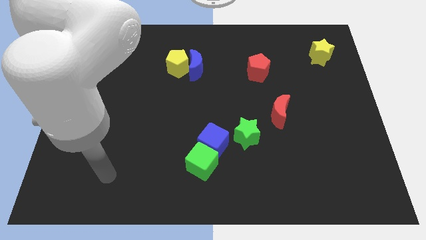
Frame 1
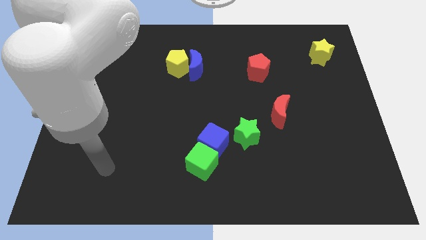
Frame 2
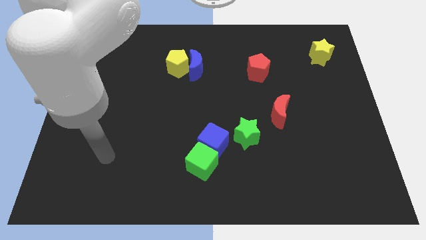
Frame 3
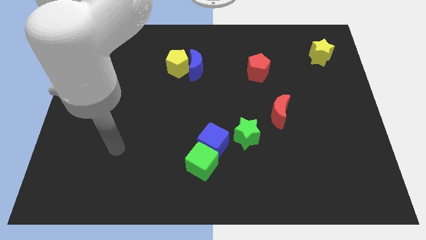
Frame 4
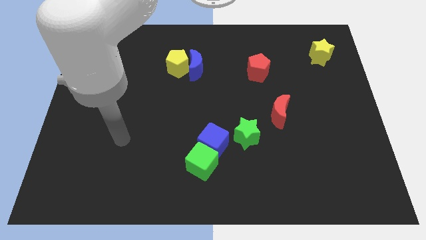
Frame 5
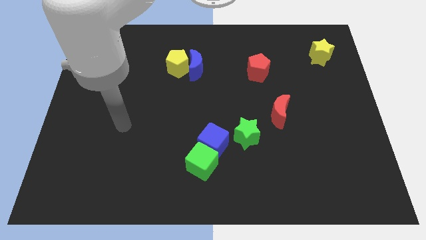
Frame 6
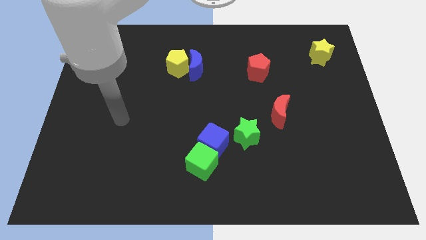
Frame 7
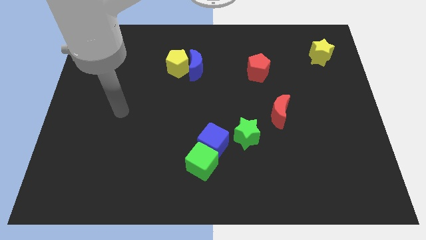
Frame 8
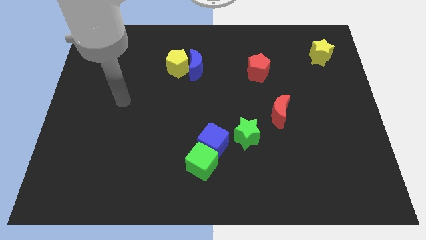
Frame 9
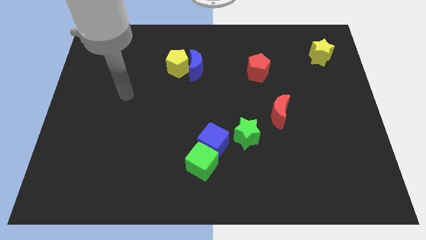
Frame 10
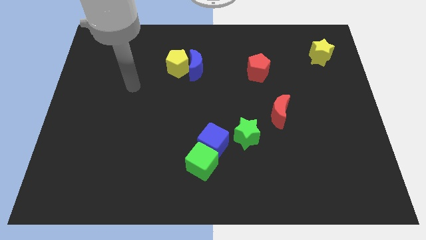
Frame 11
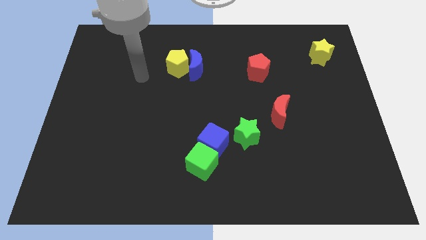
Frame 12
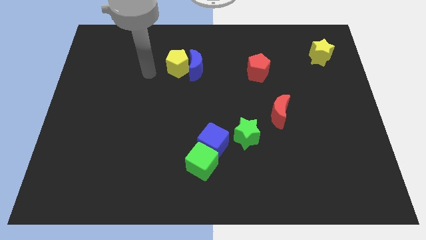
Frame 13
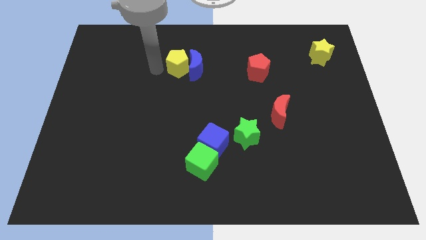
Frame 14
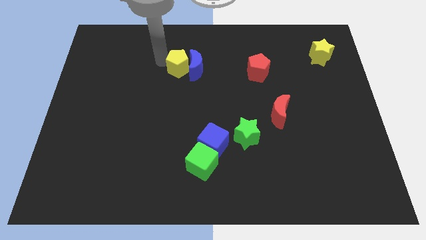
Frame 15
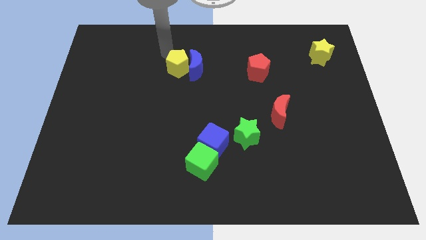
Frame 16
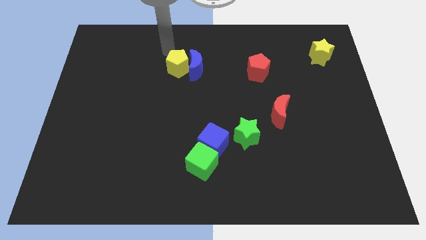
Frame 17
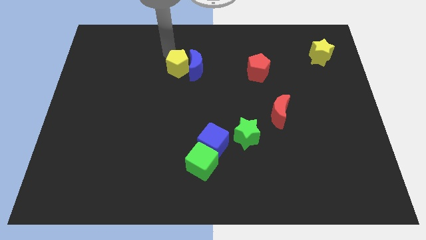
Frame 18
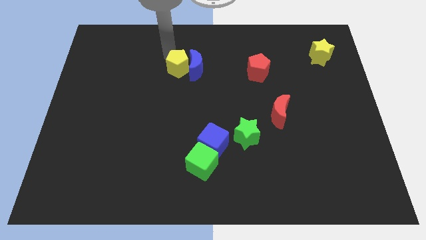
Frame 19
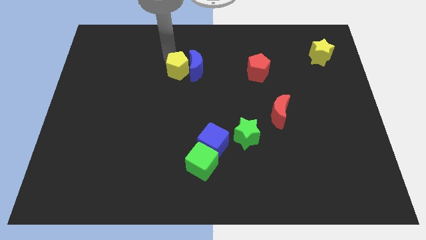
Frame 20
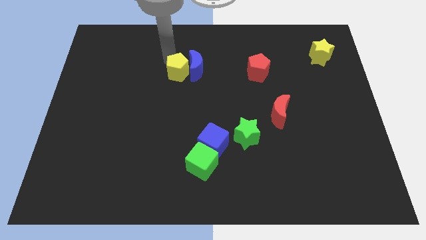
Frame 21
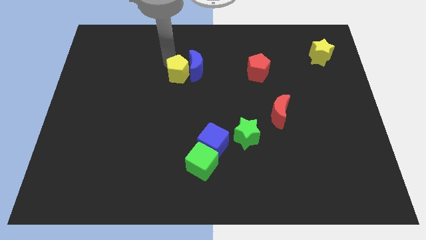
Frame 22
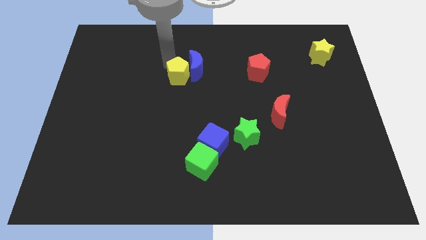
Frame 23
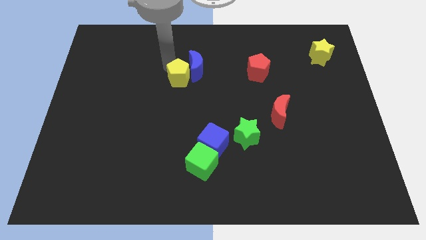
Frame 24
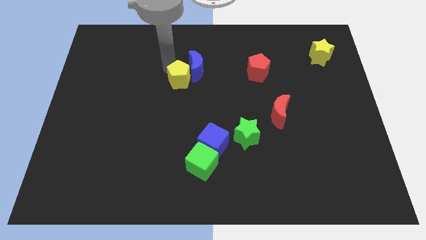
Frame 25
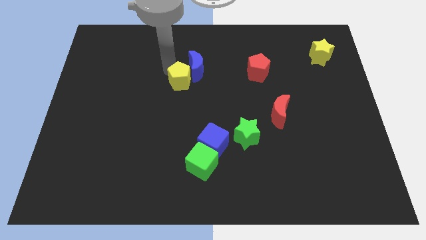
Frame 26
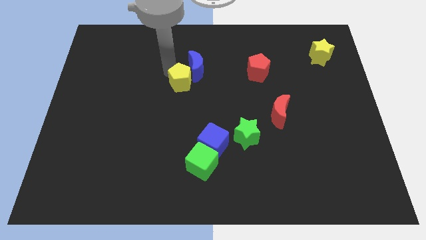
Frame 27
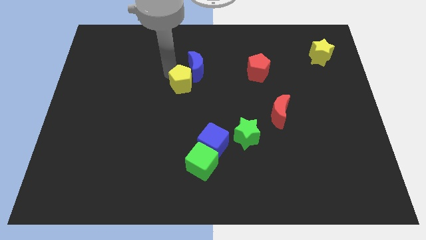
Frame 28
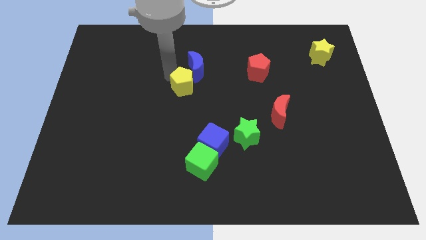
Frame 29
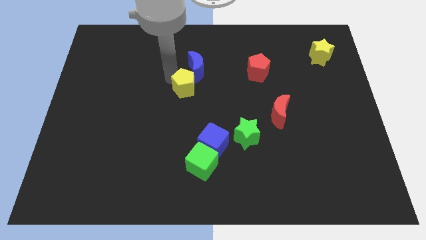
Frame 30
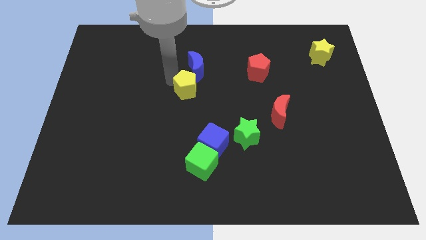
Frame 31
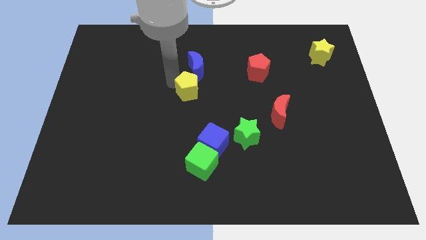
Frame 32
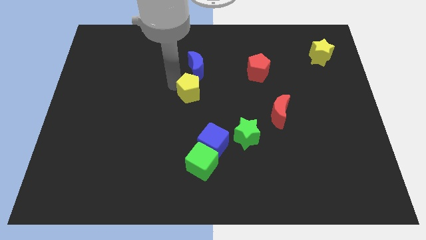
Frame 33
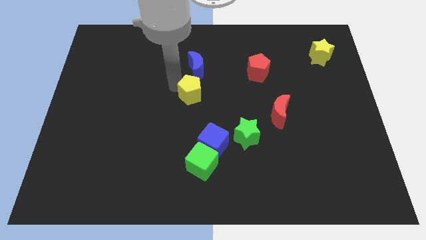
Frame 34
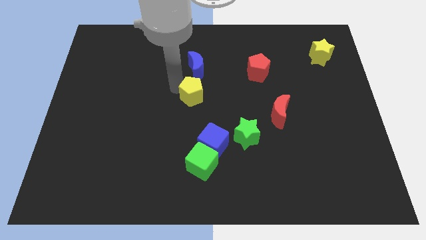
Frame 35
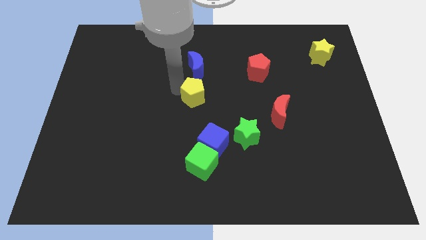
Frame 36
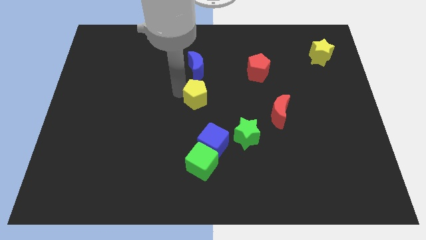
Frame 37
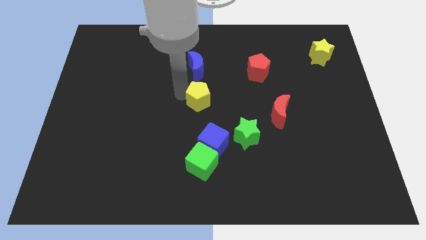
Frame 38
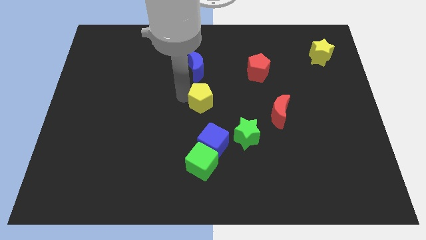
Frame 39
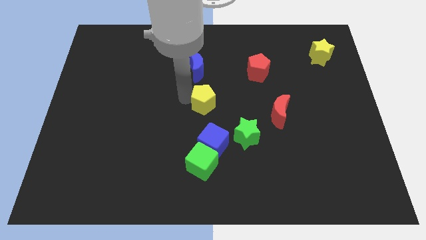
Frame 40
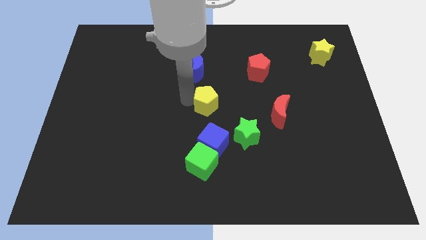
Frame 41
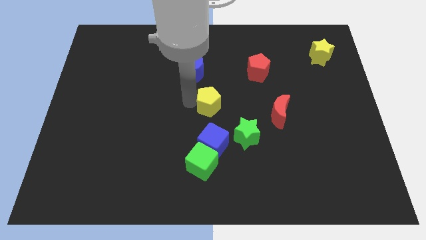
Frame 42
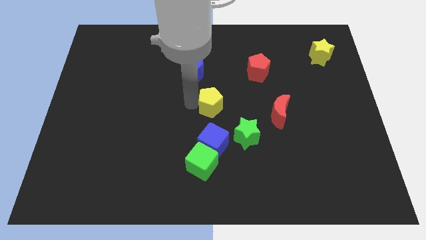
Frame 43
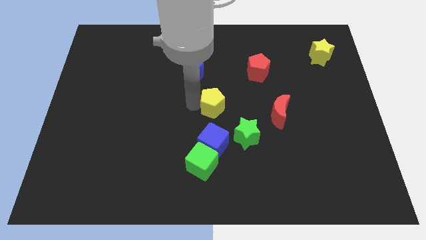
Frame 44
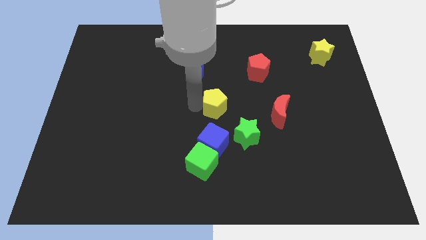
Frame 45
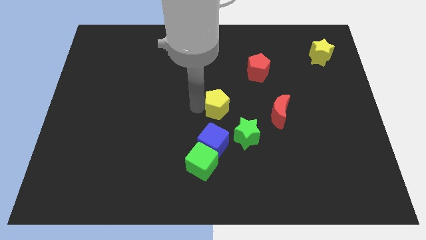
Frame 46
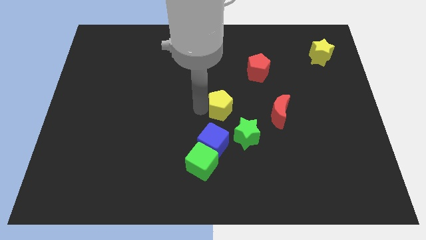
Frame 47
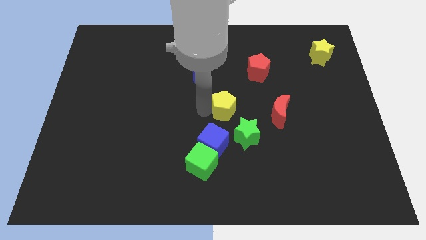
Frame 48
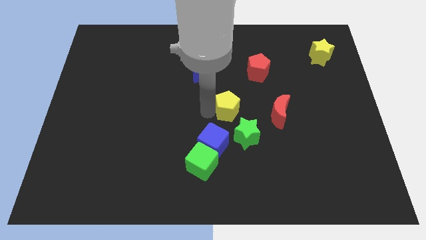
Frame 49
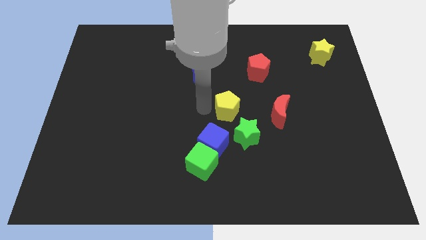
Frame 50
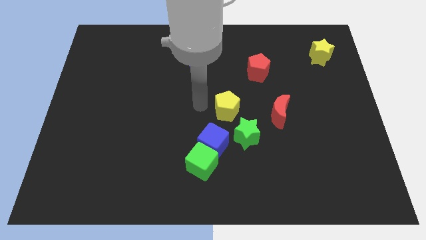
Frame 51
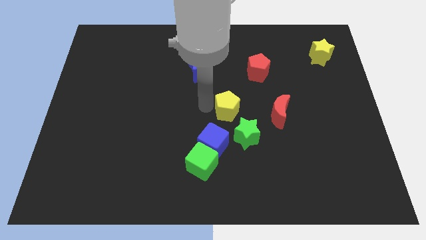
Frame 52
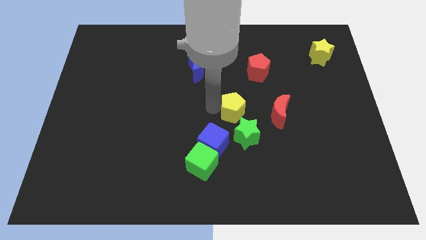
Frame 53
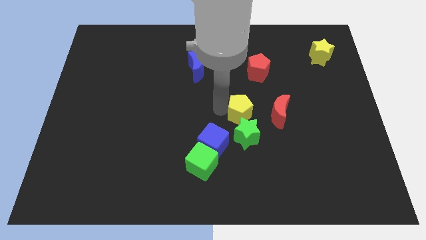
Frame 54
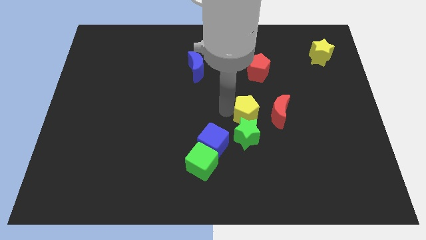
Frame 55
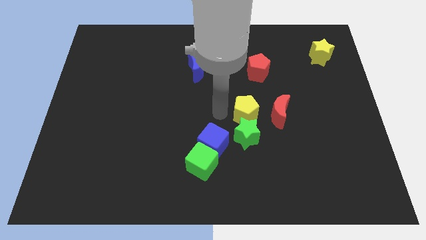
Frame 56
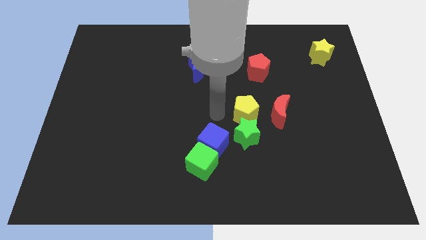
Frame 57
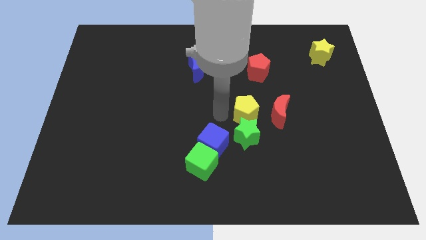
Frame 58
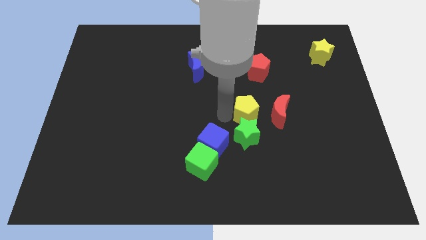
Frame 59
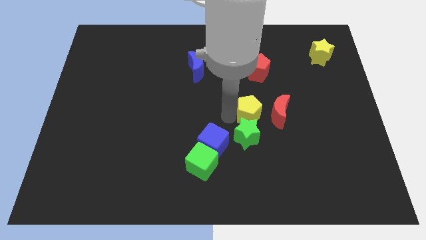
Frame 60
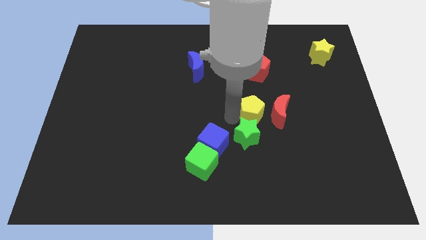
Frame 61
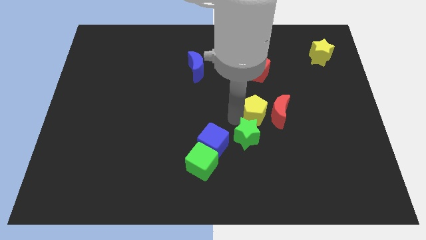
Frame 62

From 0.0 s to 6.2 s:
put the yellow pentagon to the red moon

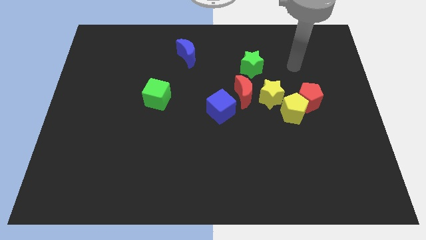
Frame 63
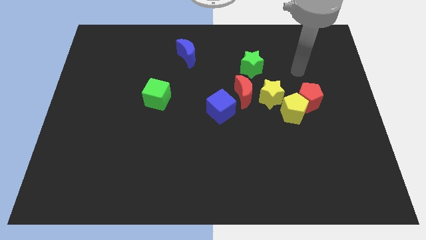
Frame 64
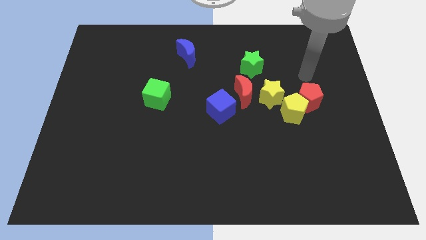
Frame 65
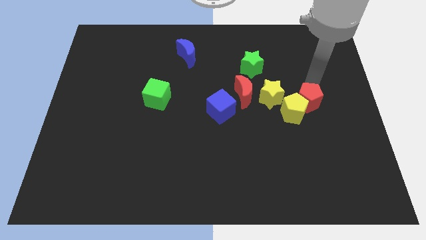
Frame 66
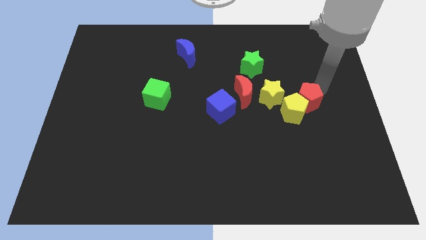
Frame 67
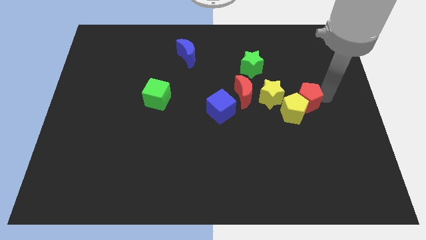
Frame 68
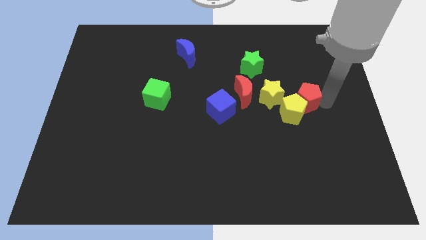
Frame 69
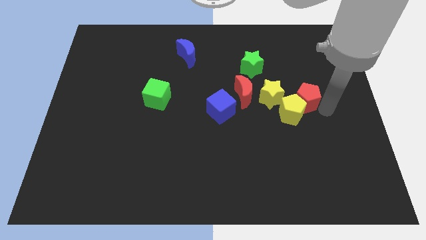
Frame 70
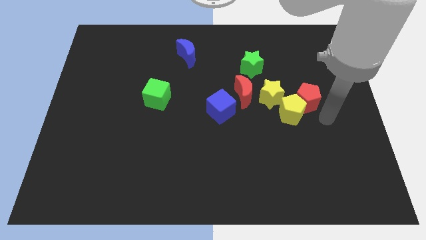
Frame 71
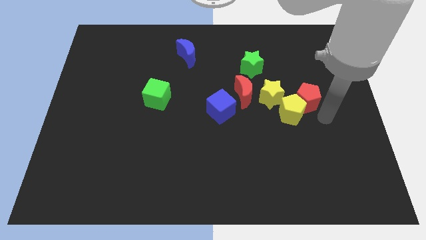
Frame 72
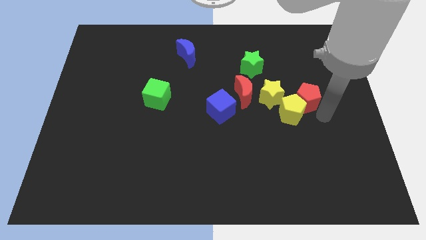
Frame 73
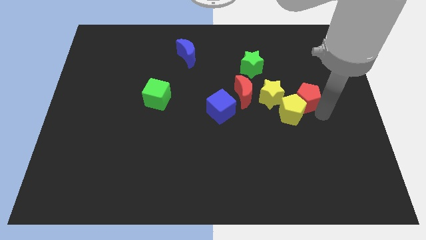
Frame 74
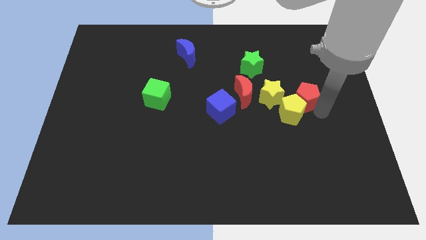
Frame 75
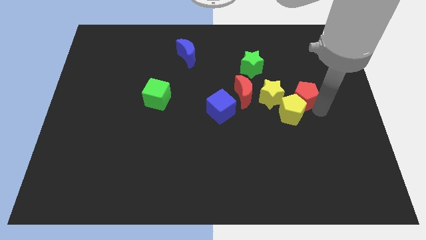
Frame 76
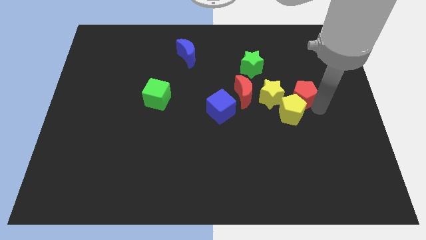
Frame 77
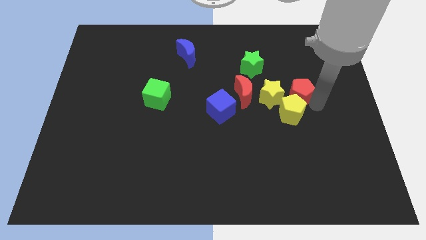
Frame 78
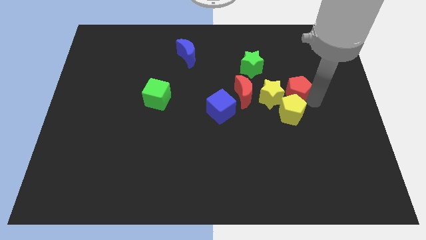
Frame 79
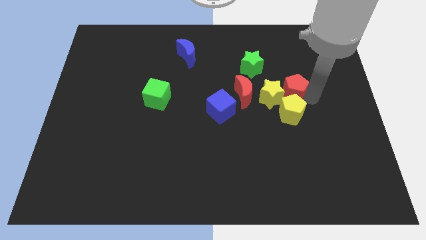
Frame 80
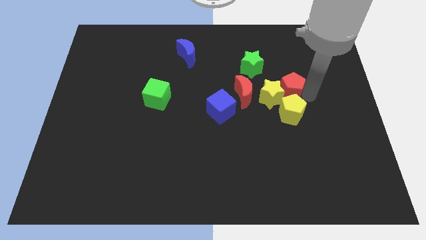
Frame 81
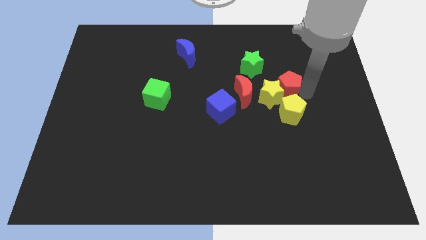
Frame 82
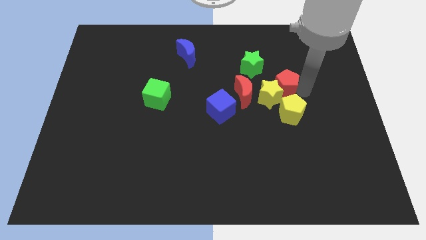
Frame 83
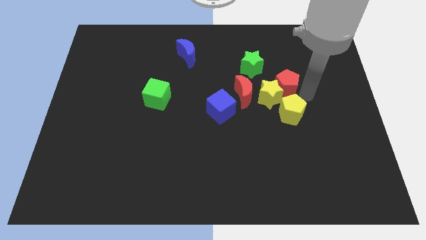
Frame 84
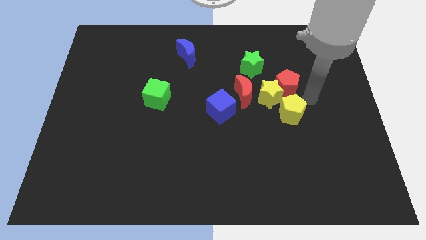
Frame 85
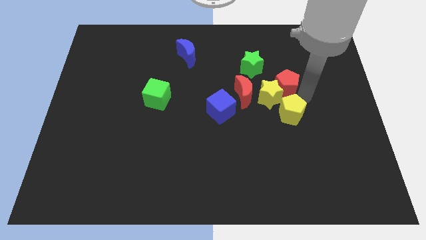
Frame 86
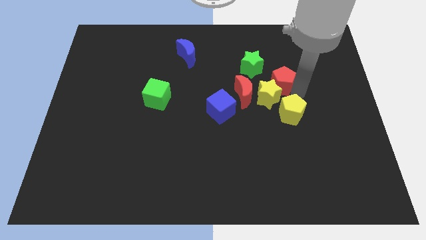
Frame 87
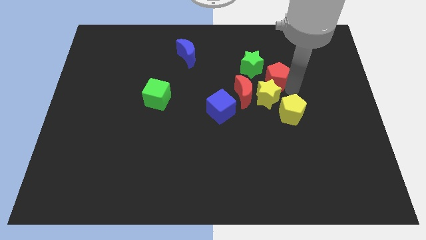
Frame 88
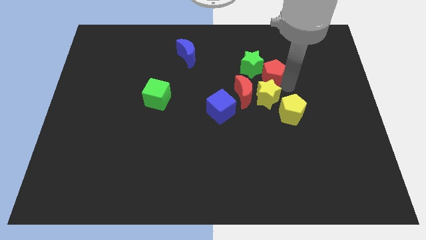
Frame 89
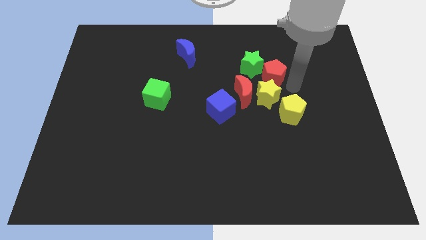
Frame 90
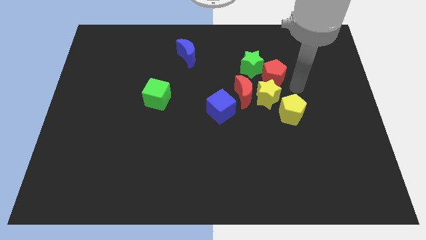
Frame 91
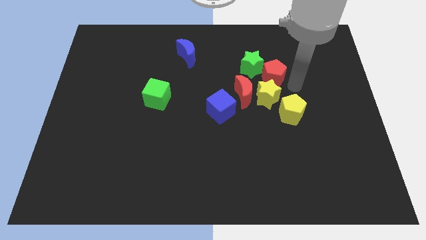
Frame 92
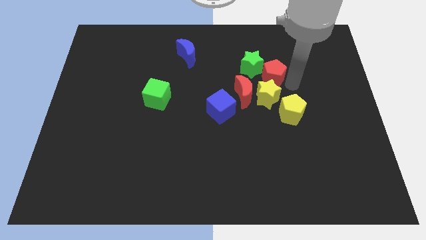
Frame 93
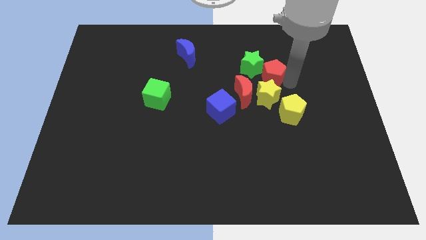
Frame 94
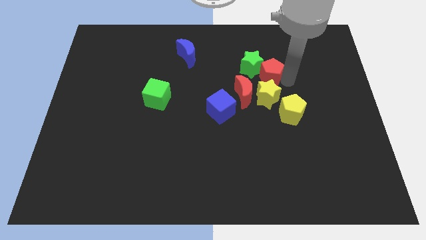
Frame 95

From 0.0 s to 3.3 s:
push the red pentagon to the green star
